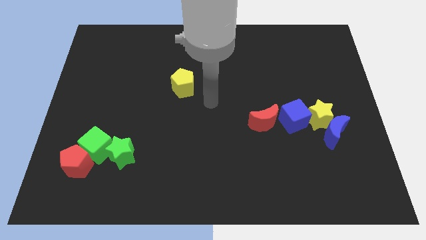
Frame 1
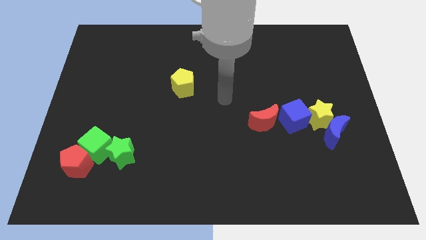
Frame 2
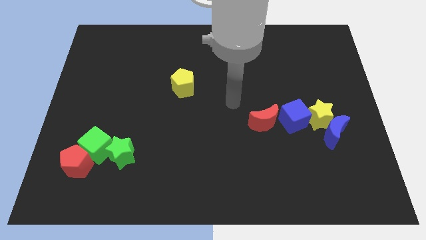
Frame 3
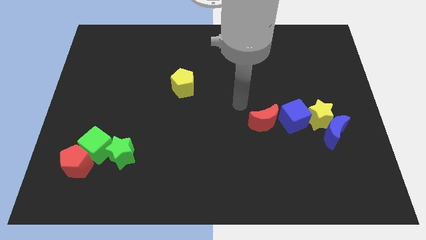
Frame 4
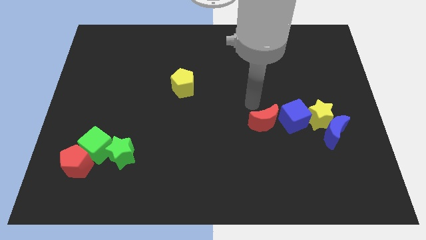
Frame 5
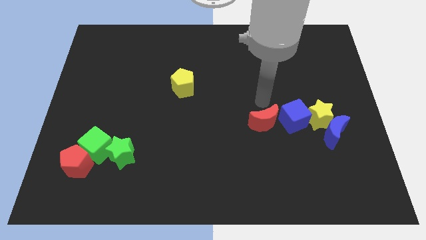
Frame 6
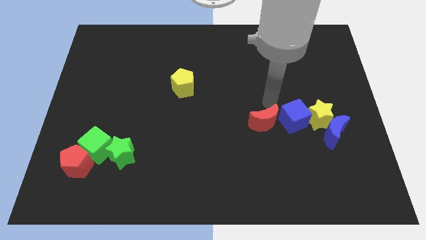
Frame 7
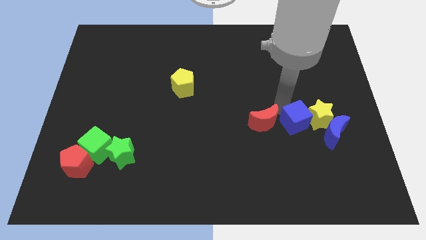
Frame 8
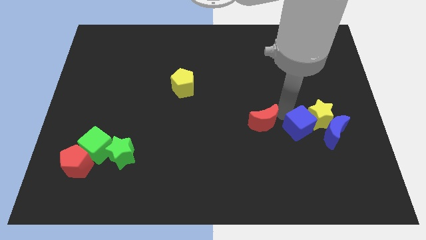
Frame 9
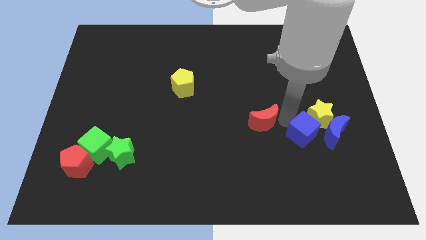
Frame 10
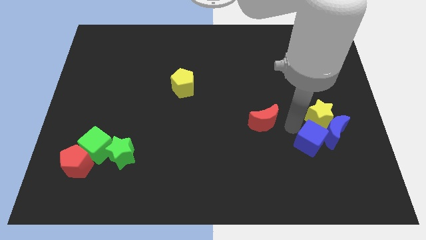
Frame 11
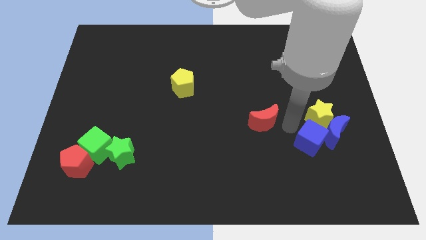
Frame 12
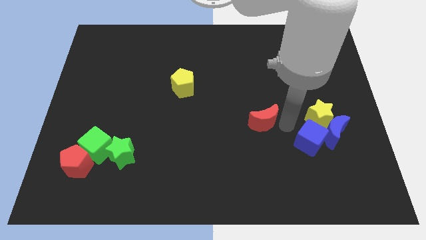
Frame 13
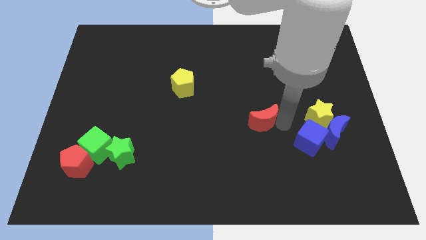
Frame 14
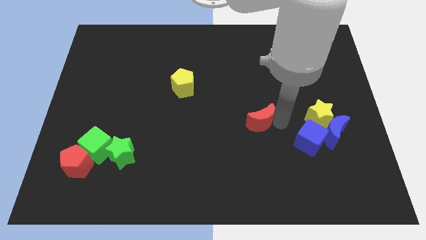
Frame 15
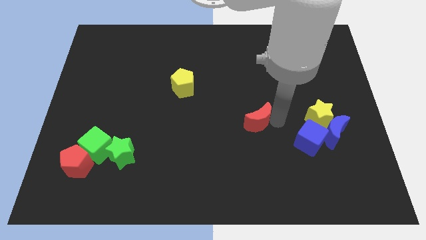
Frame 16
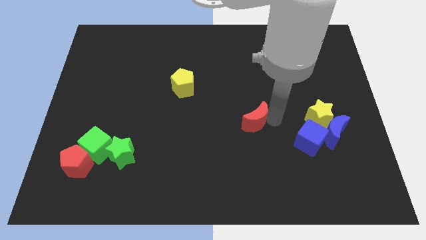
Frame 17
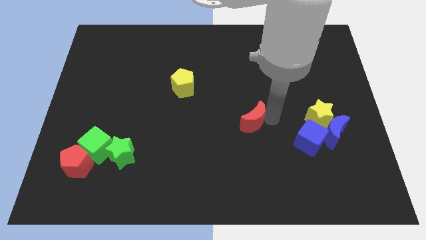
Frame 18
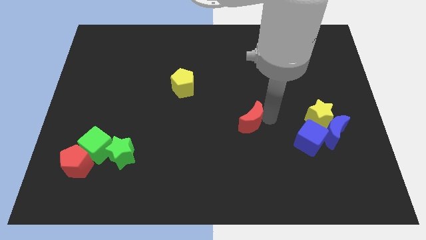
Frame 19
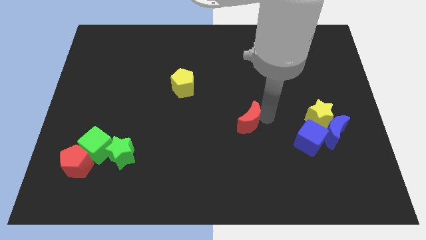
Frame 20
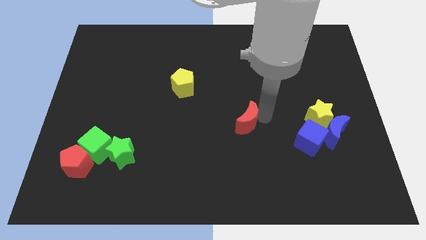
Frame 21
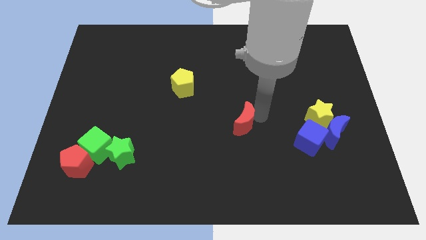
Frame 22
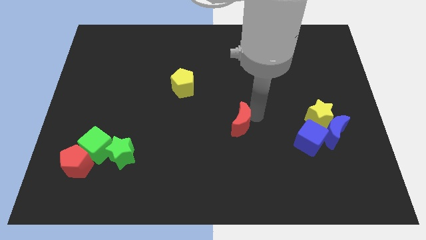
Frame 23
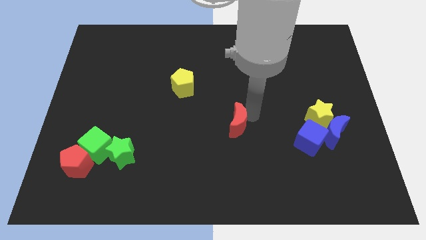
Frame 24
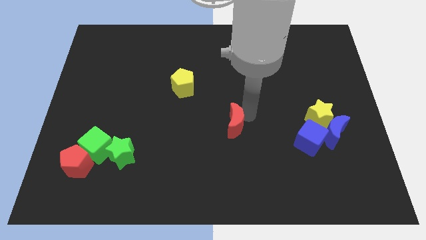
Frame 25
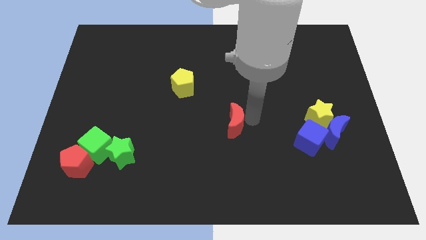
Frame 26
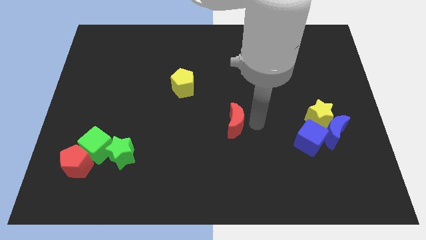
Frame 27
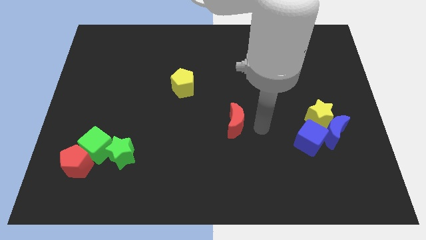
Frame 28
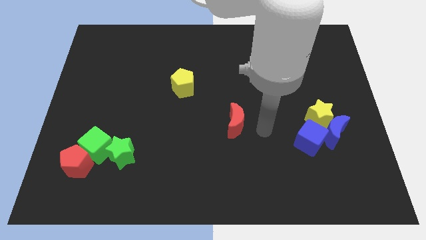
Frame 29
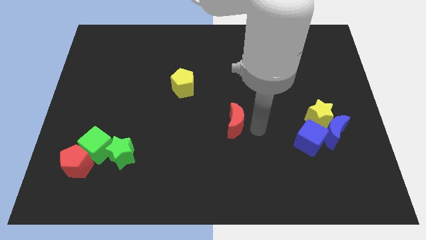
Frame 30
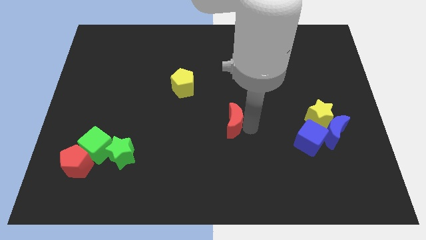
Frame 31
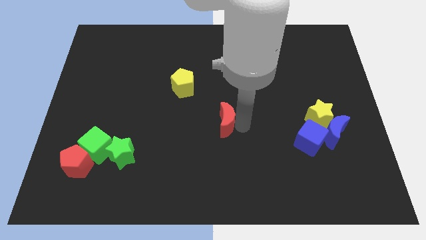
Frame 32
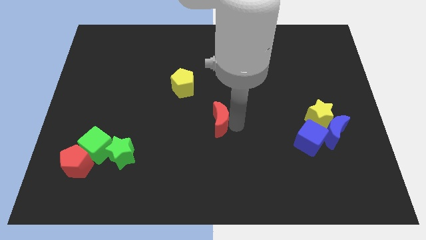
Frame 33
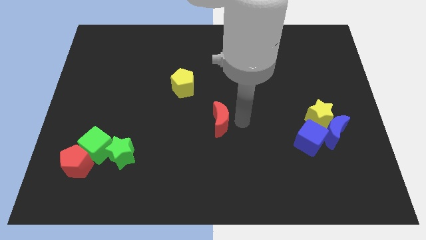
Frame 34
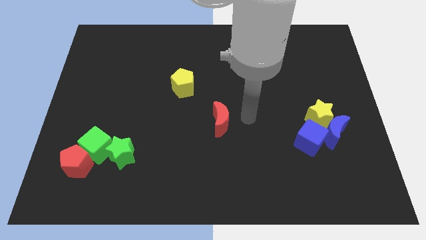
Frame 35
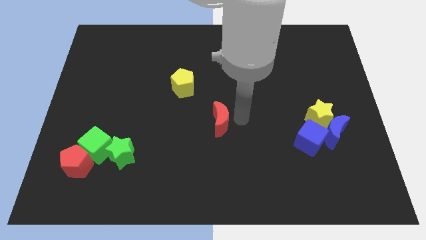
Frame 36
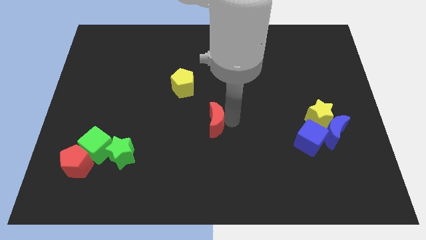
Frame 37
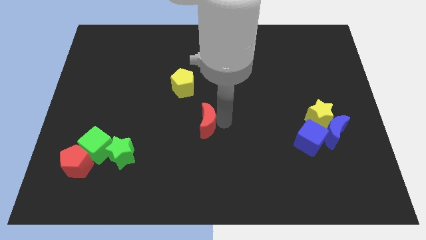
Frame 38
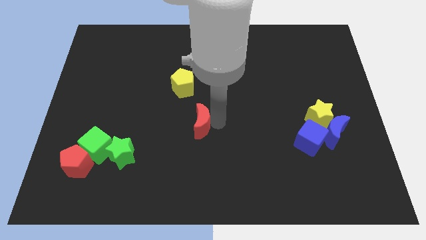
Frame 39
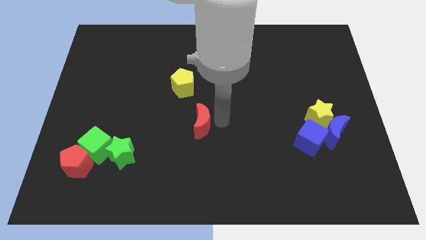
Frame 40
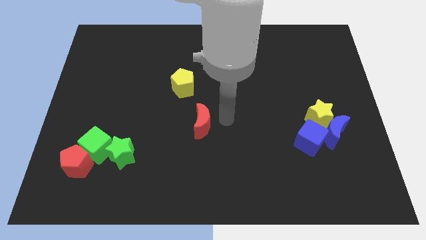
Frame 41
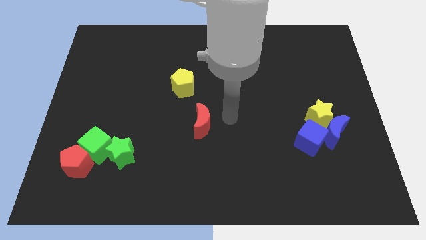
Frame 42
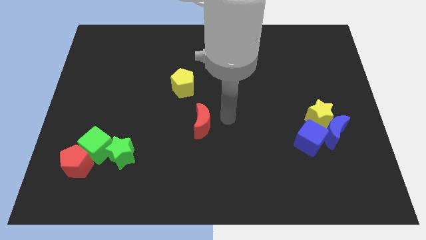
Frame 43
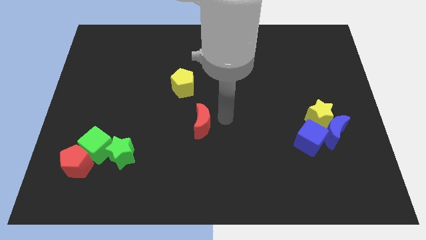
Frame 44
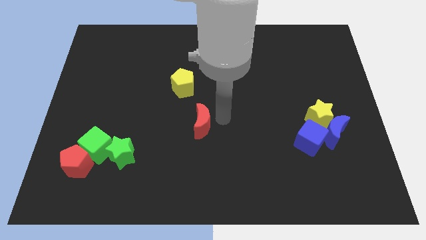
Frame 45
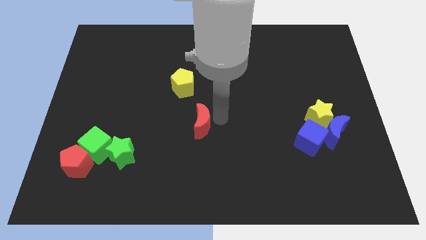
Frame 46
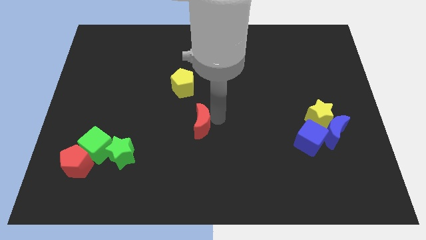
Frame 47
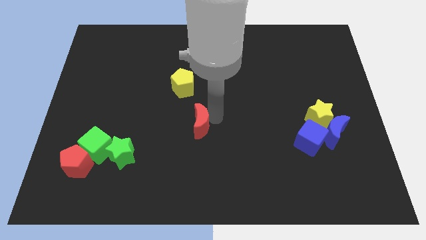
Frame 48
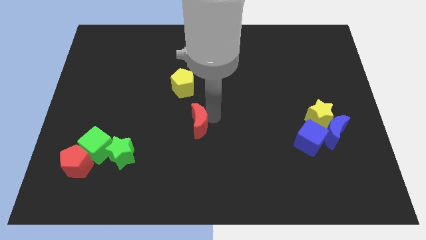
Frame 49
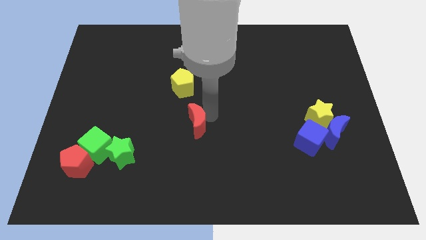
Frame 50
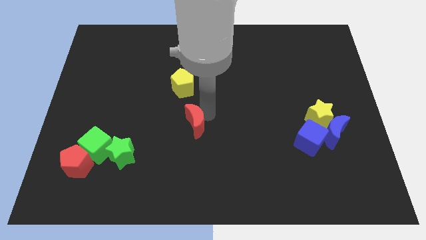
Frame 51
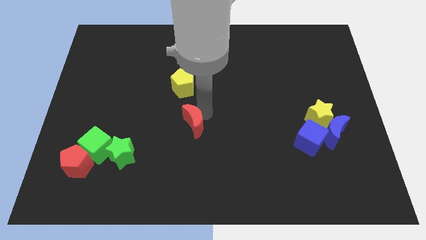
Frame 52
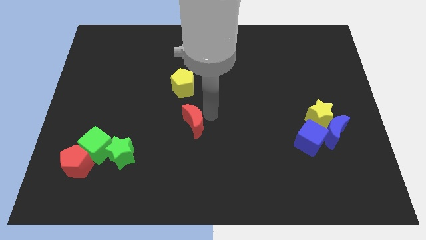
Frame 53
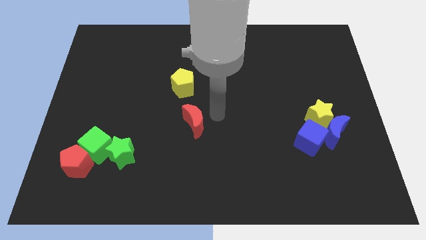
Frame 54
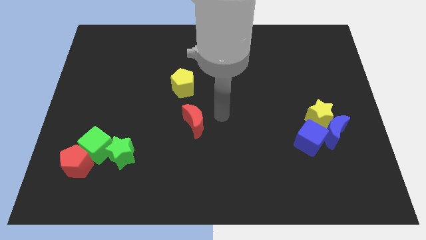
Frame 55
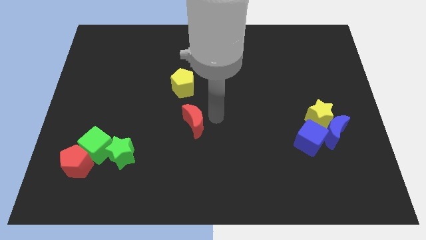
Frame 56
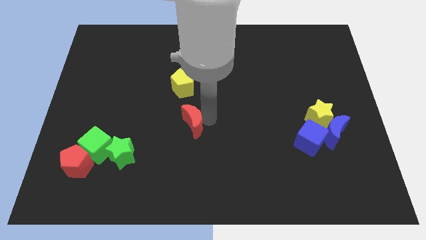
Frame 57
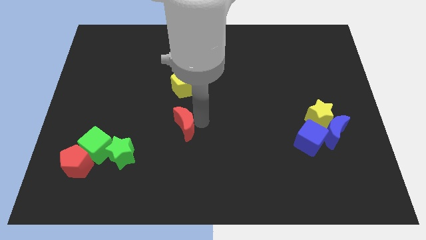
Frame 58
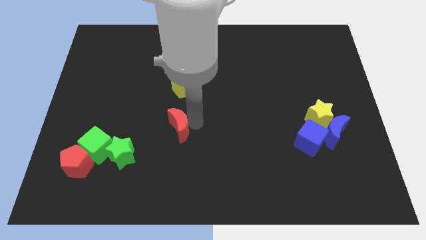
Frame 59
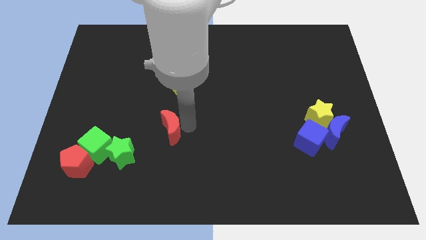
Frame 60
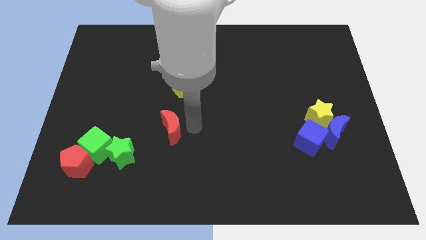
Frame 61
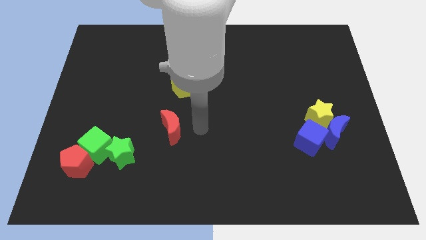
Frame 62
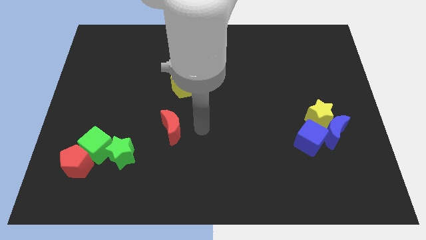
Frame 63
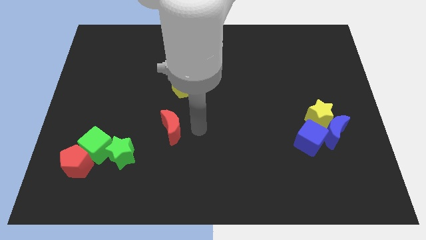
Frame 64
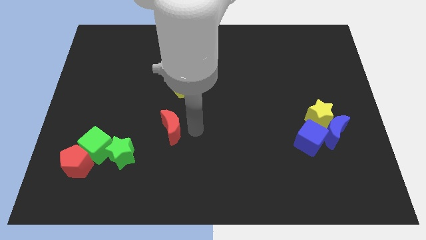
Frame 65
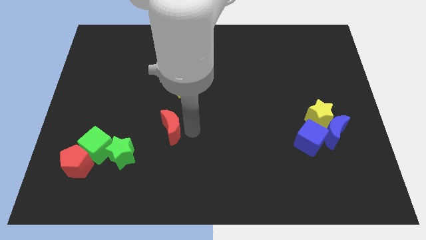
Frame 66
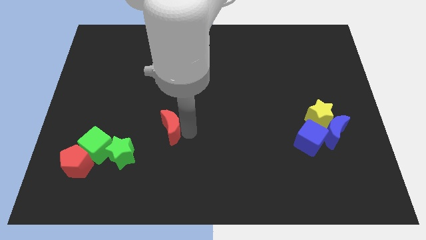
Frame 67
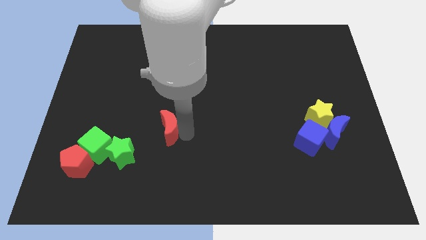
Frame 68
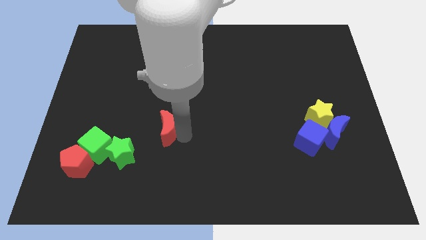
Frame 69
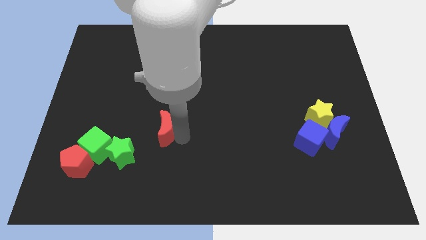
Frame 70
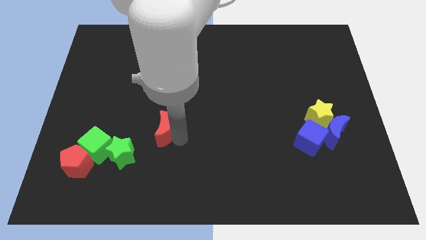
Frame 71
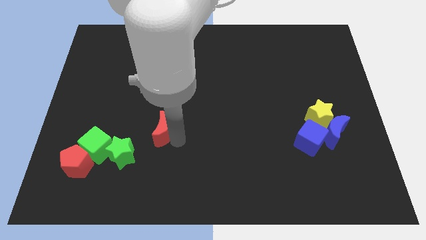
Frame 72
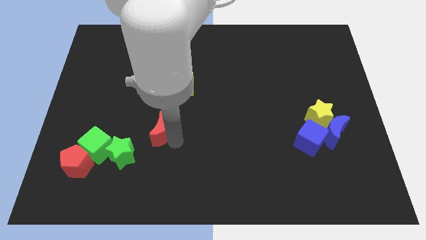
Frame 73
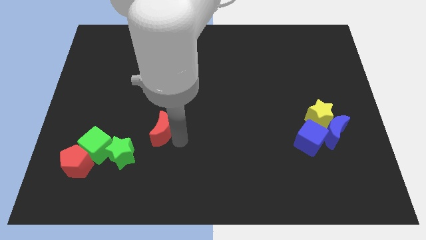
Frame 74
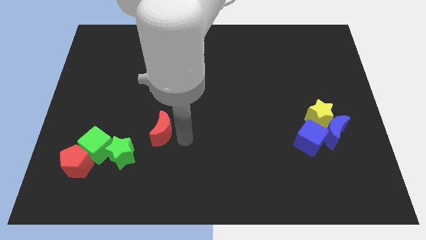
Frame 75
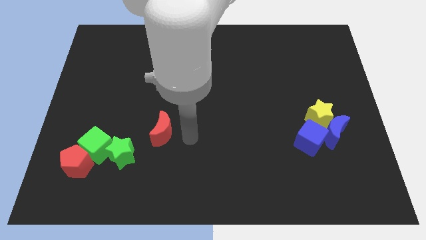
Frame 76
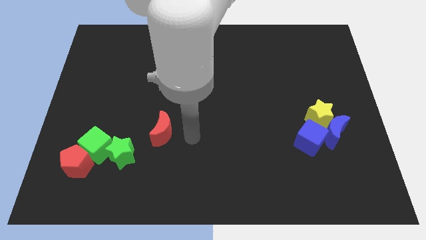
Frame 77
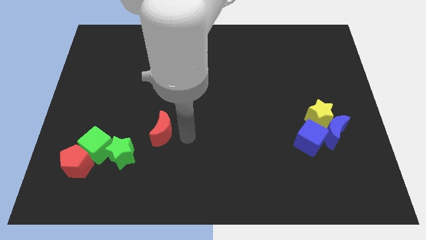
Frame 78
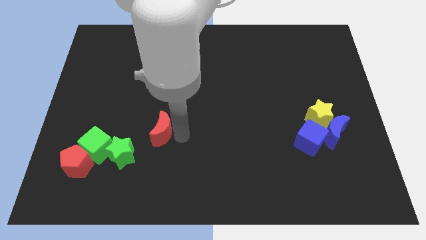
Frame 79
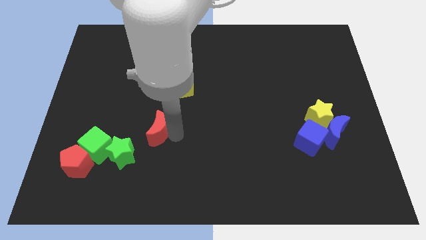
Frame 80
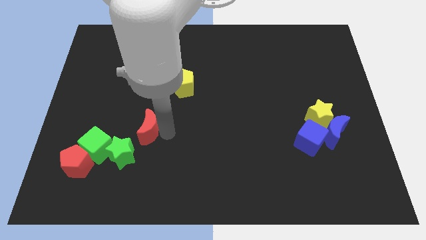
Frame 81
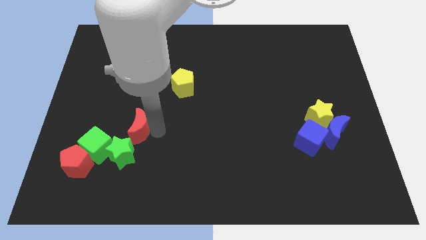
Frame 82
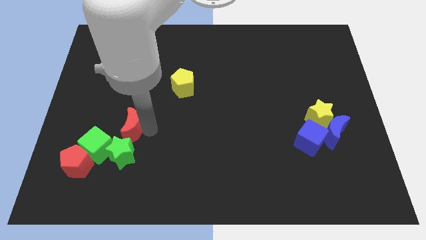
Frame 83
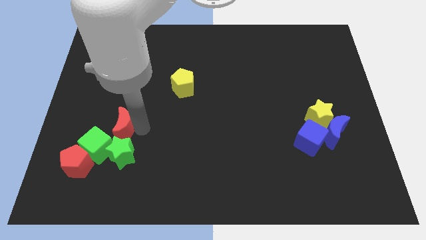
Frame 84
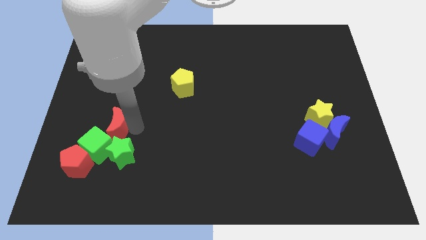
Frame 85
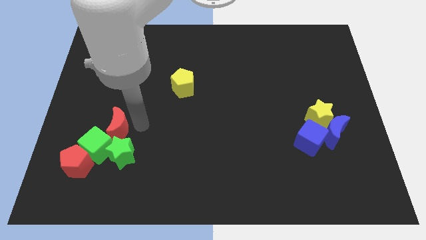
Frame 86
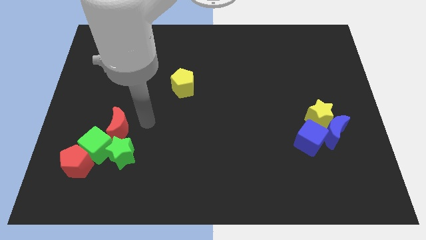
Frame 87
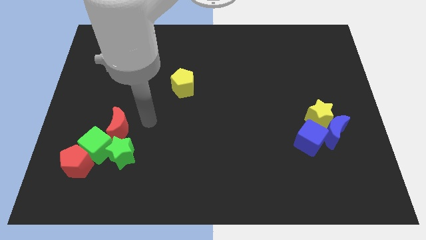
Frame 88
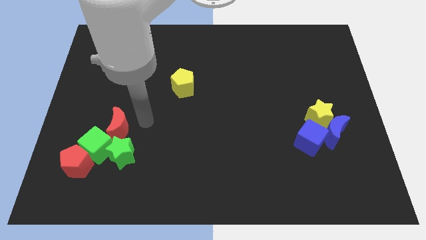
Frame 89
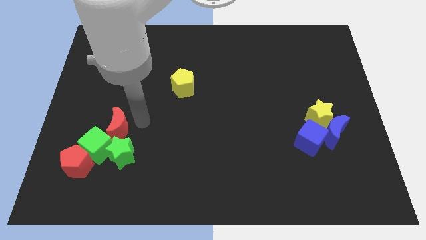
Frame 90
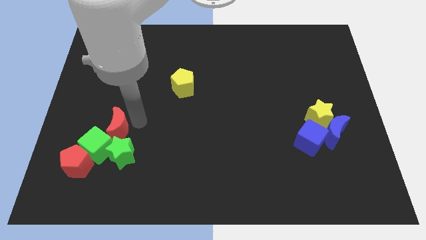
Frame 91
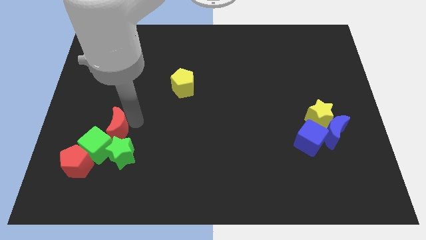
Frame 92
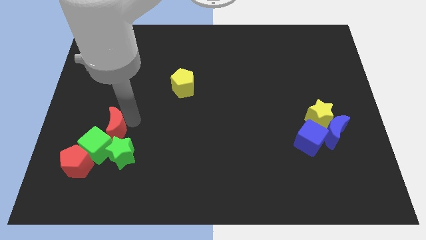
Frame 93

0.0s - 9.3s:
put the red moon close to the green cube
